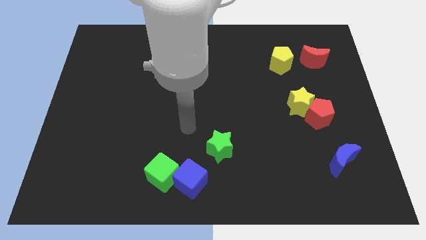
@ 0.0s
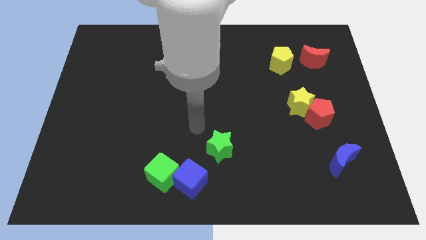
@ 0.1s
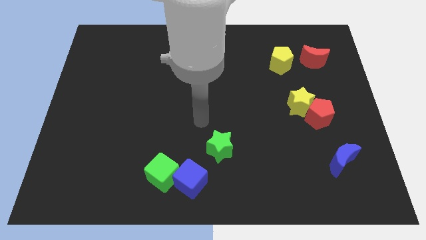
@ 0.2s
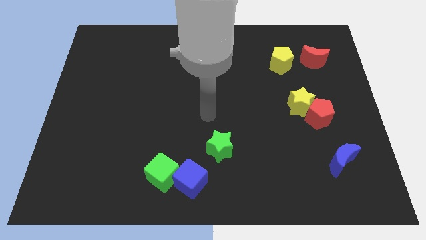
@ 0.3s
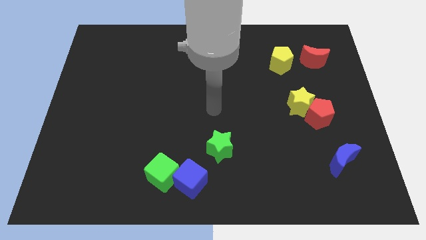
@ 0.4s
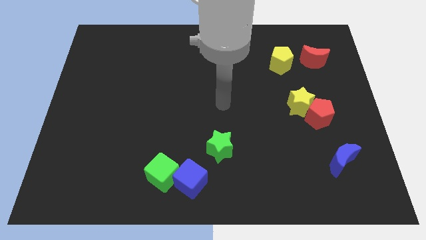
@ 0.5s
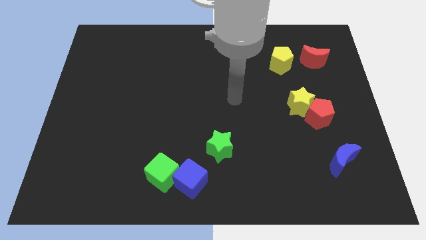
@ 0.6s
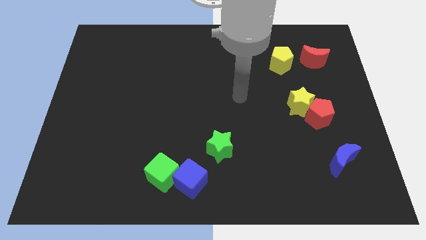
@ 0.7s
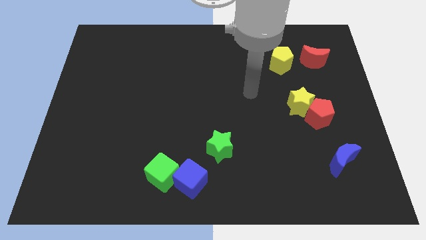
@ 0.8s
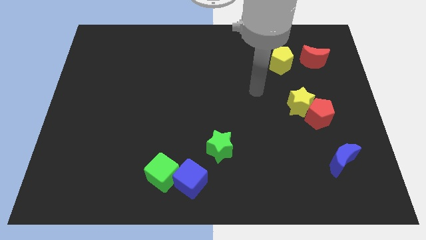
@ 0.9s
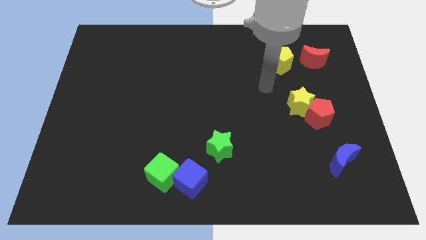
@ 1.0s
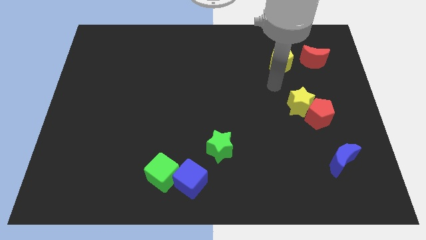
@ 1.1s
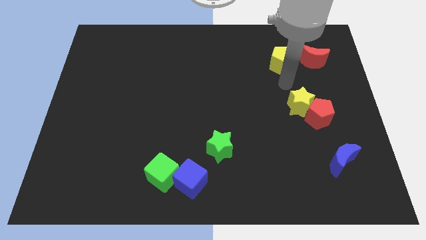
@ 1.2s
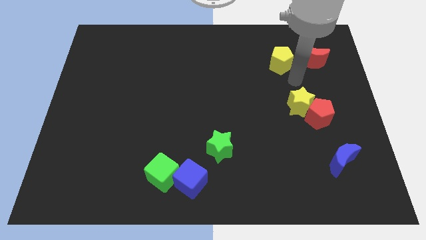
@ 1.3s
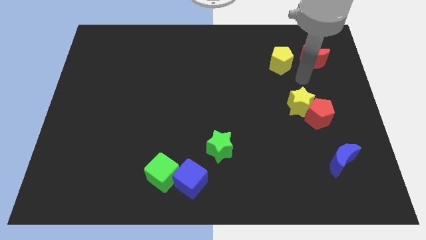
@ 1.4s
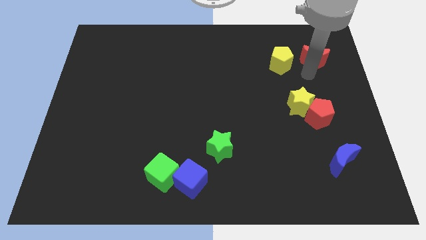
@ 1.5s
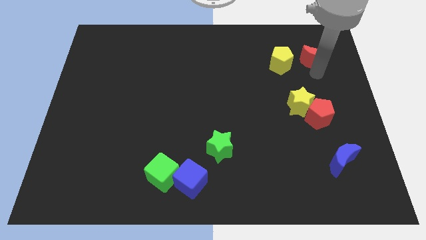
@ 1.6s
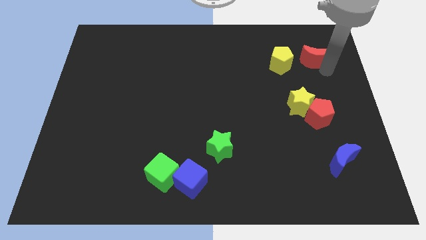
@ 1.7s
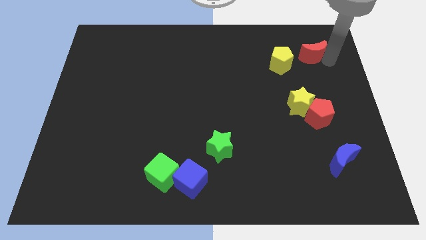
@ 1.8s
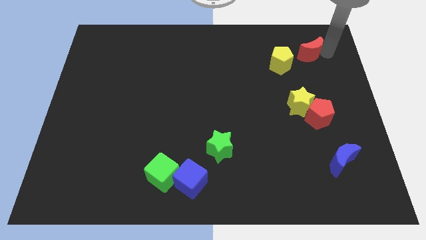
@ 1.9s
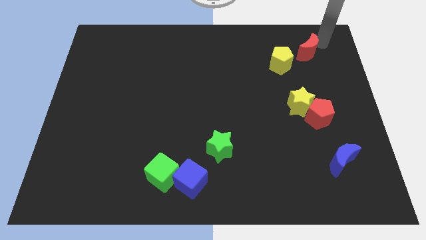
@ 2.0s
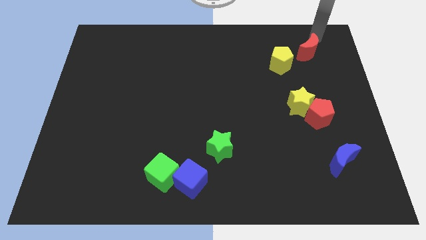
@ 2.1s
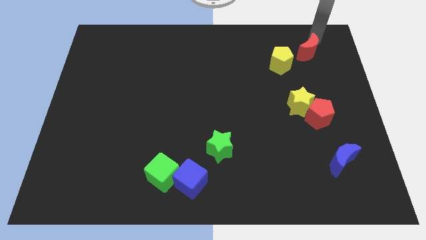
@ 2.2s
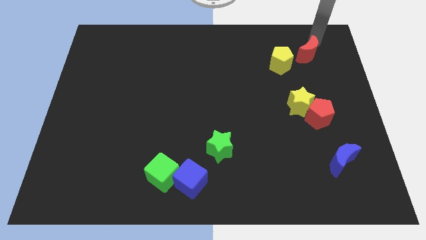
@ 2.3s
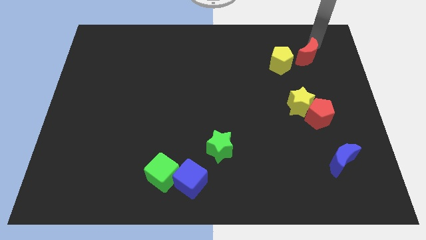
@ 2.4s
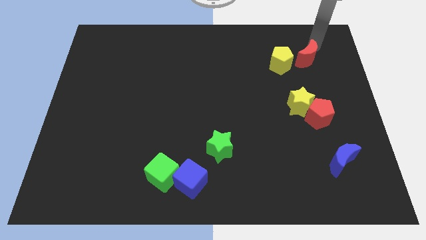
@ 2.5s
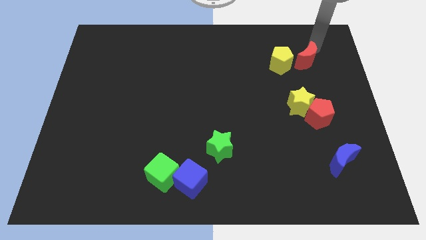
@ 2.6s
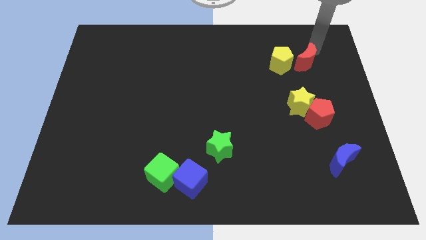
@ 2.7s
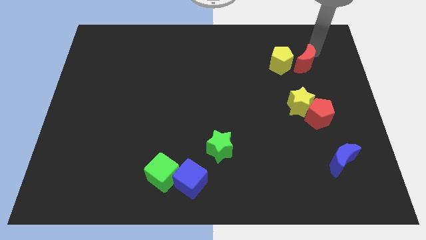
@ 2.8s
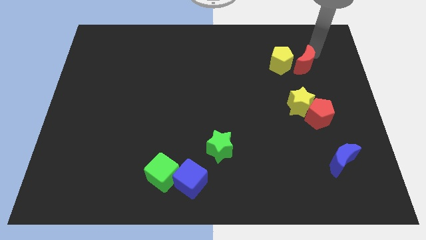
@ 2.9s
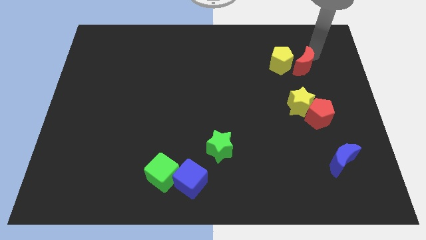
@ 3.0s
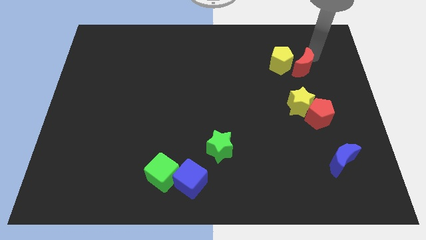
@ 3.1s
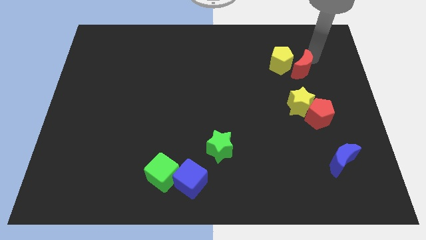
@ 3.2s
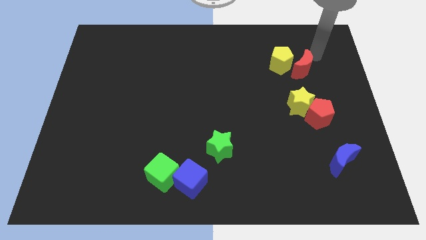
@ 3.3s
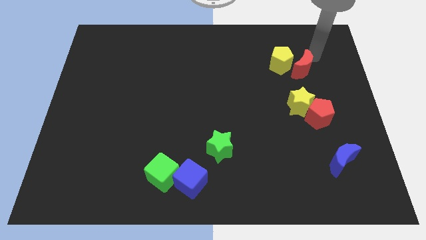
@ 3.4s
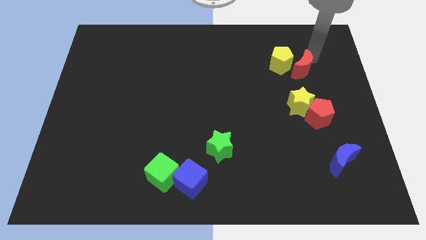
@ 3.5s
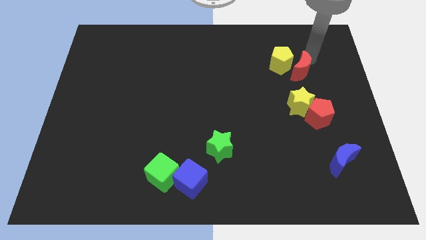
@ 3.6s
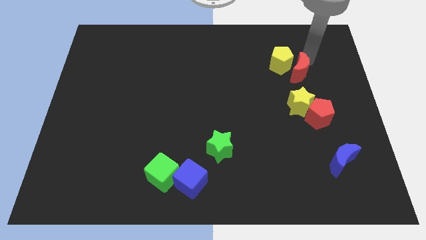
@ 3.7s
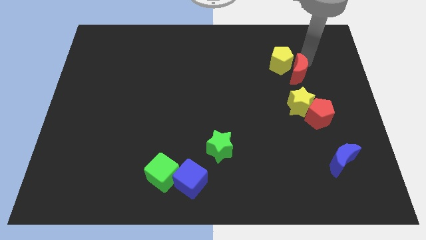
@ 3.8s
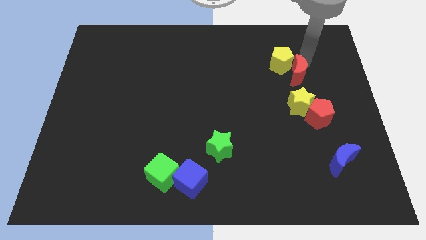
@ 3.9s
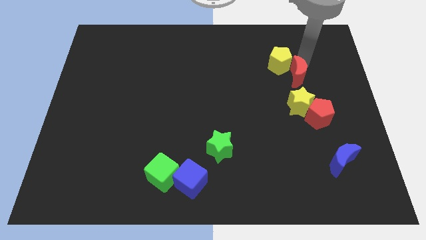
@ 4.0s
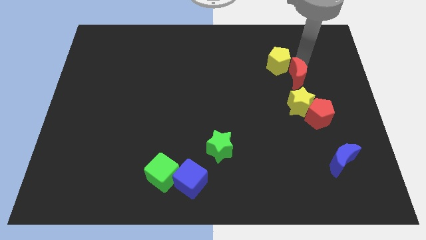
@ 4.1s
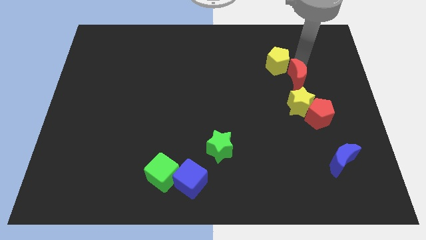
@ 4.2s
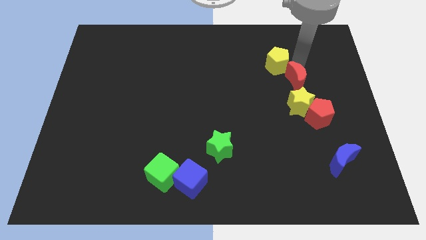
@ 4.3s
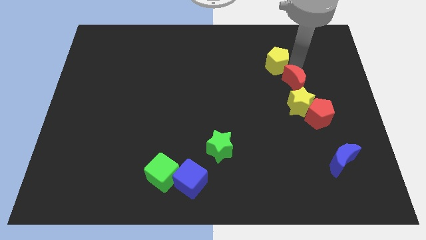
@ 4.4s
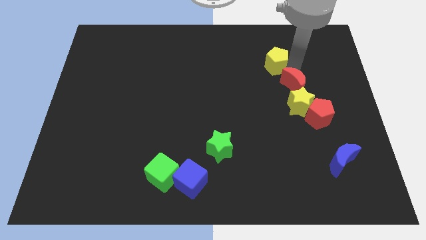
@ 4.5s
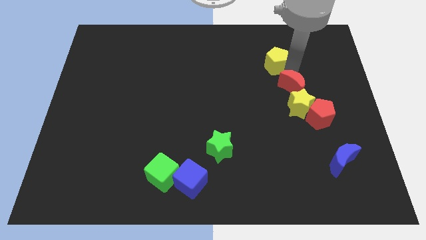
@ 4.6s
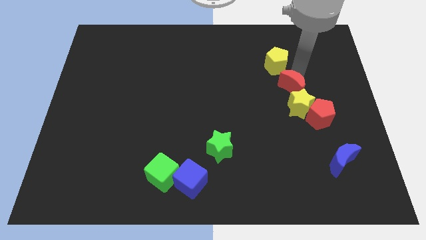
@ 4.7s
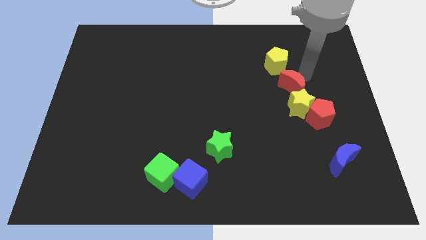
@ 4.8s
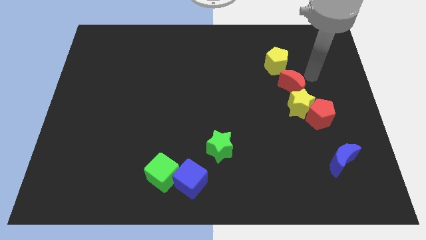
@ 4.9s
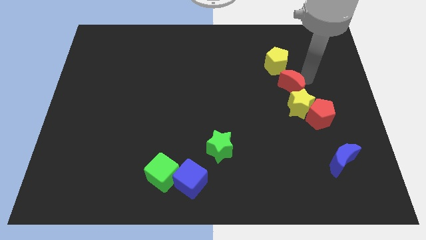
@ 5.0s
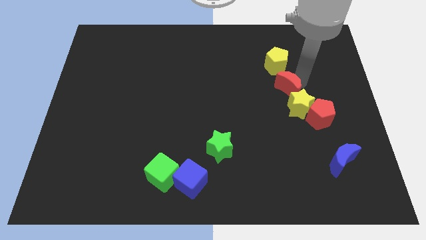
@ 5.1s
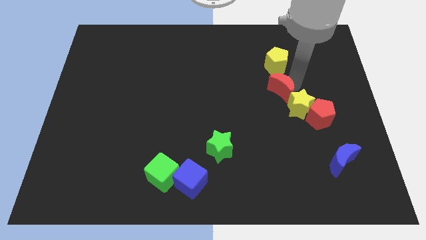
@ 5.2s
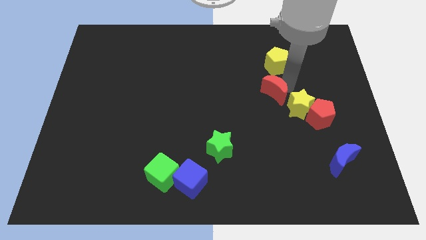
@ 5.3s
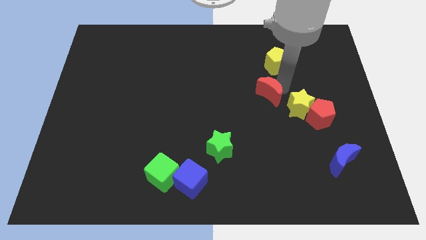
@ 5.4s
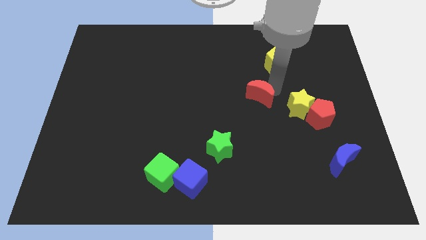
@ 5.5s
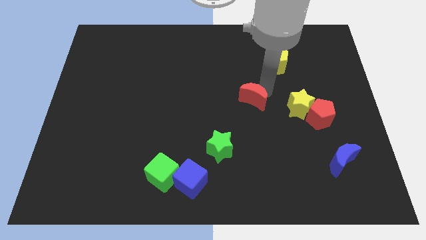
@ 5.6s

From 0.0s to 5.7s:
push the red moon downwards and to the left

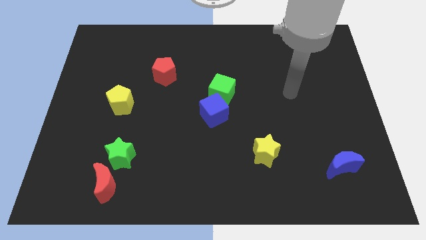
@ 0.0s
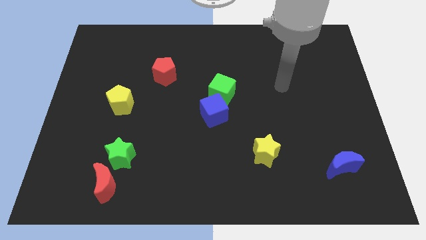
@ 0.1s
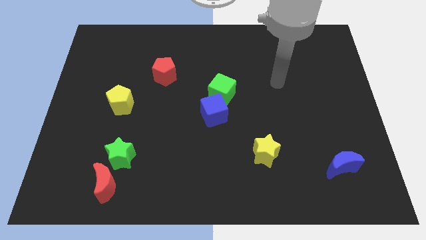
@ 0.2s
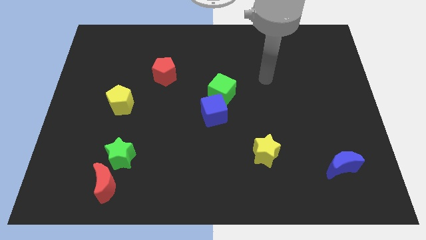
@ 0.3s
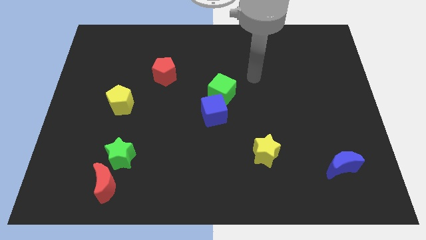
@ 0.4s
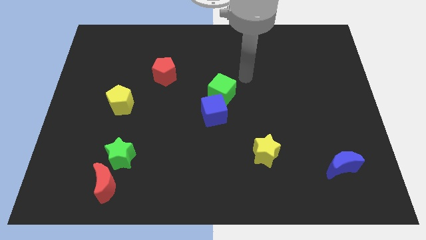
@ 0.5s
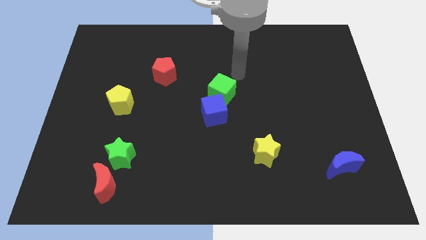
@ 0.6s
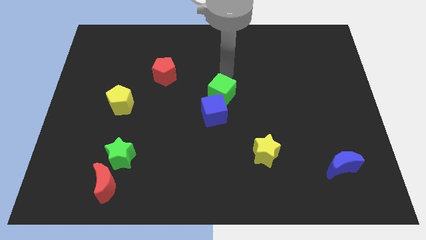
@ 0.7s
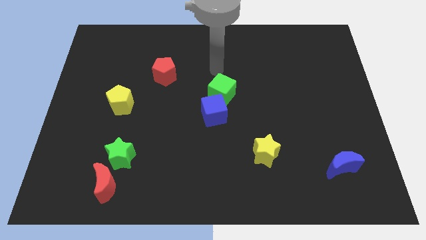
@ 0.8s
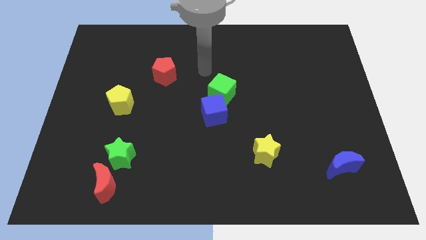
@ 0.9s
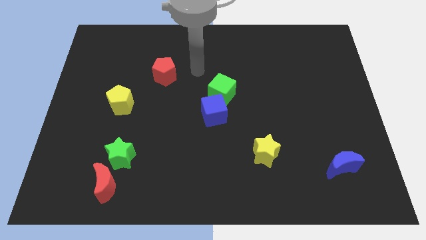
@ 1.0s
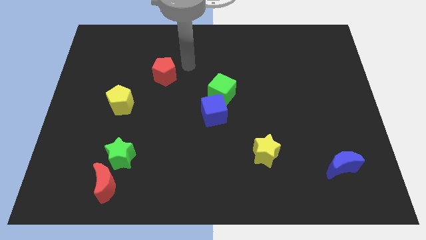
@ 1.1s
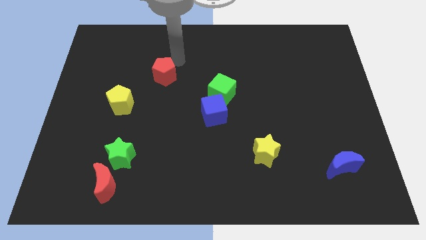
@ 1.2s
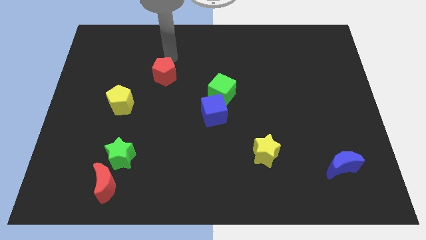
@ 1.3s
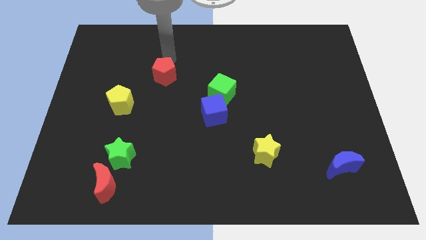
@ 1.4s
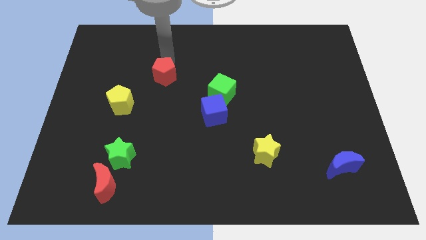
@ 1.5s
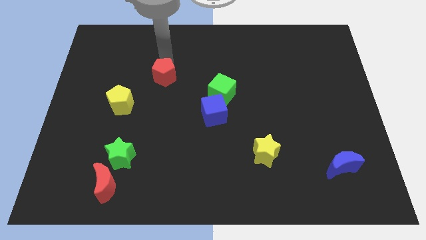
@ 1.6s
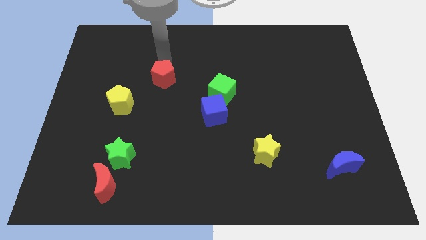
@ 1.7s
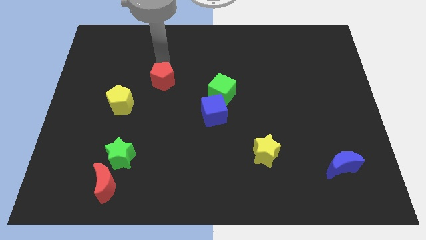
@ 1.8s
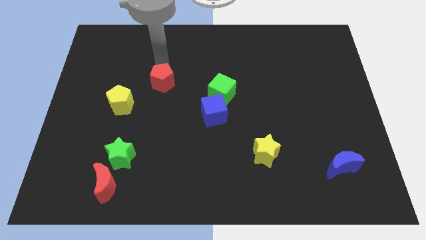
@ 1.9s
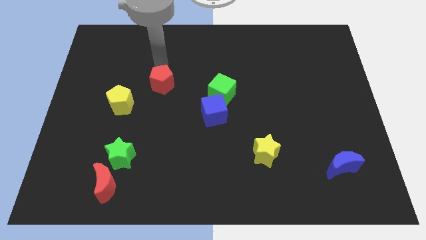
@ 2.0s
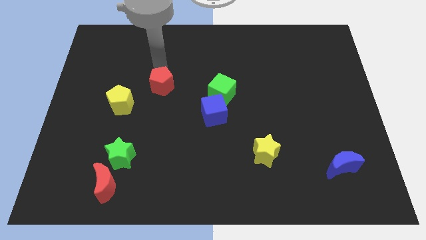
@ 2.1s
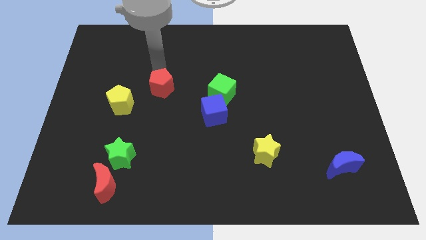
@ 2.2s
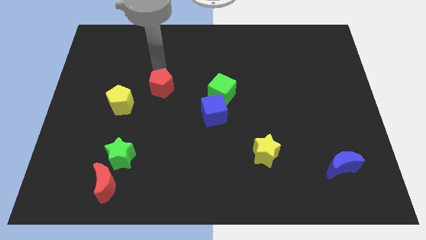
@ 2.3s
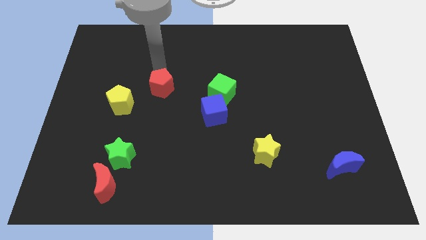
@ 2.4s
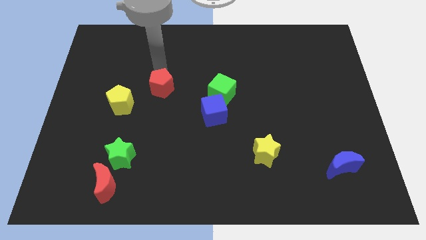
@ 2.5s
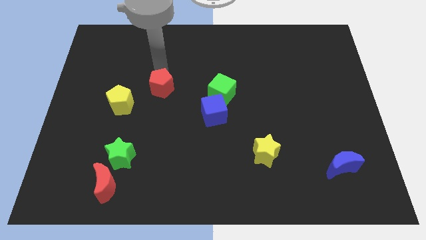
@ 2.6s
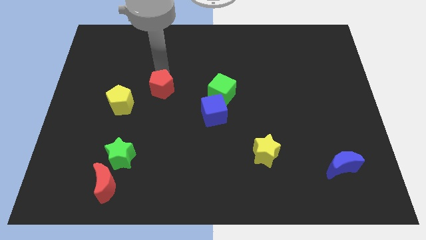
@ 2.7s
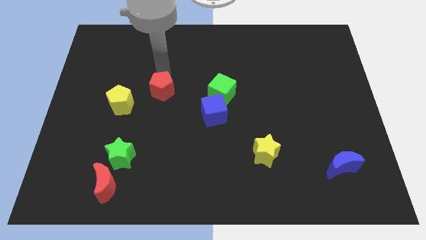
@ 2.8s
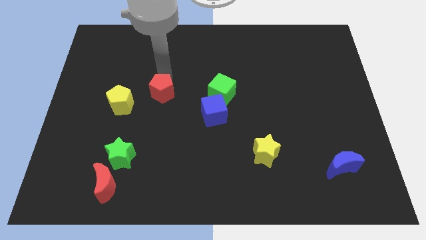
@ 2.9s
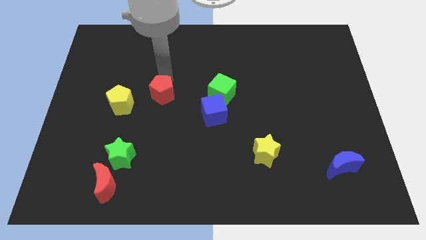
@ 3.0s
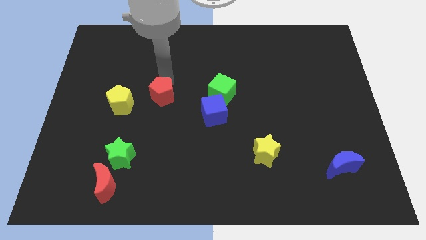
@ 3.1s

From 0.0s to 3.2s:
move the red pentagon a bit down
